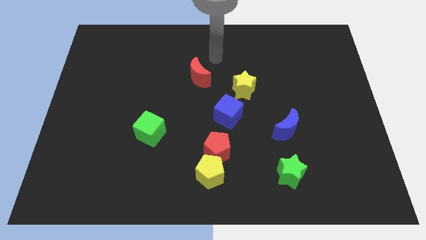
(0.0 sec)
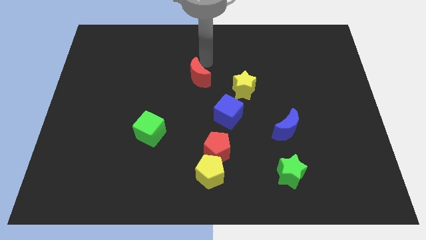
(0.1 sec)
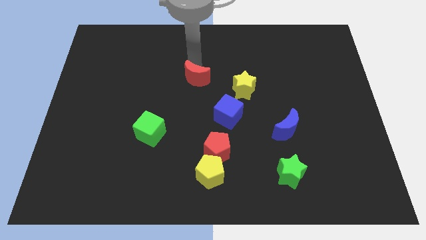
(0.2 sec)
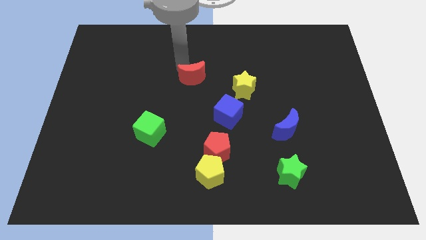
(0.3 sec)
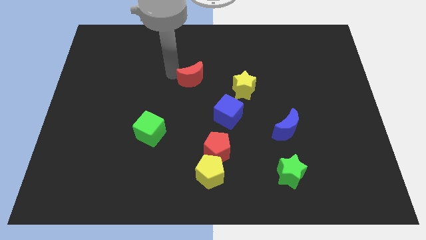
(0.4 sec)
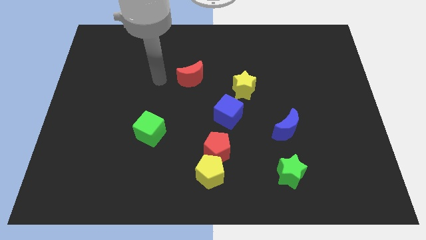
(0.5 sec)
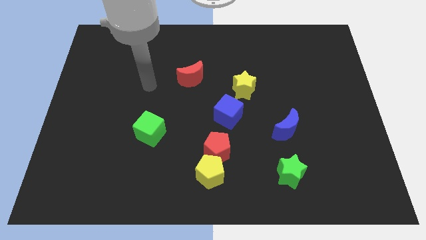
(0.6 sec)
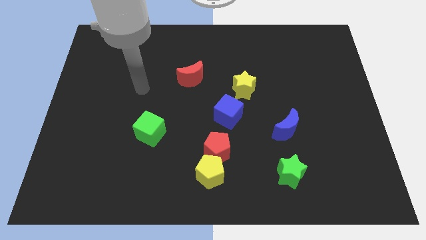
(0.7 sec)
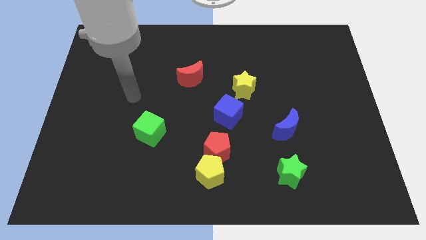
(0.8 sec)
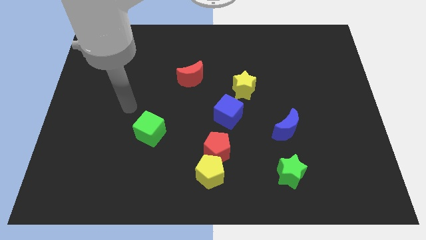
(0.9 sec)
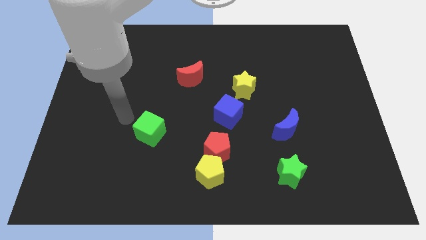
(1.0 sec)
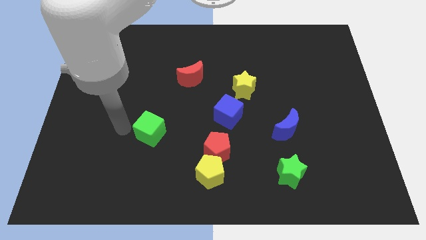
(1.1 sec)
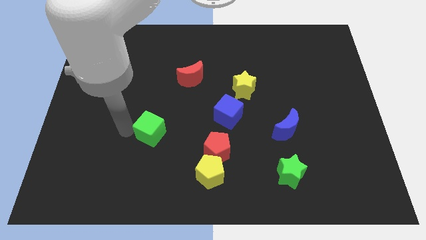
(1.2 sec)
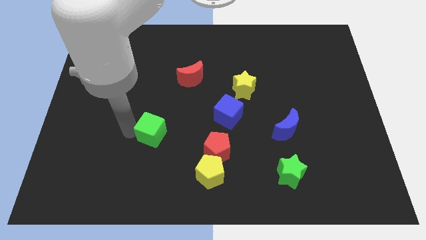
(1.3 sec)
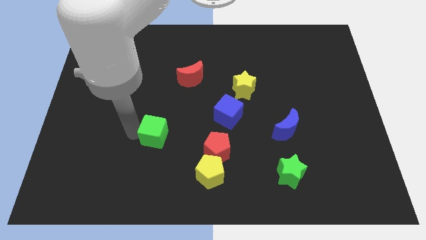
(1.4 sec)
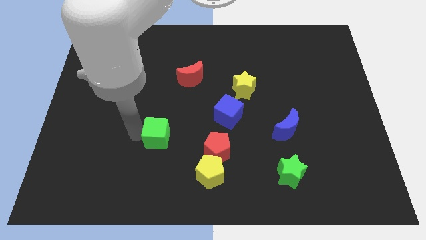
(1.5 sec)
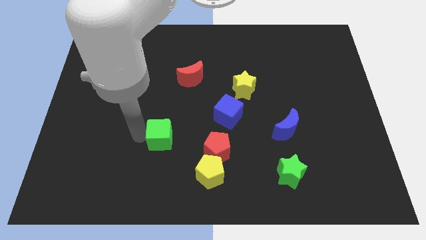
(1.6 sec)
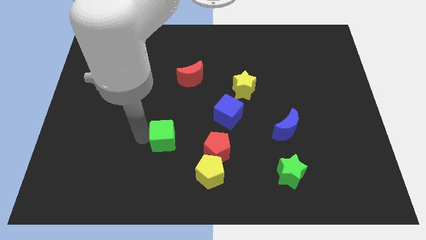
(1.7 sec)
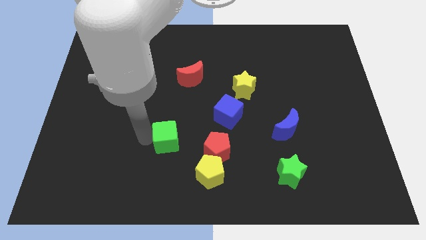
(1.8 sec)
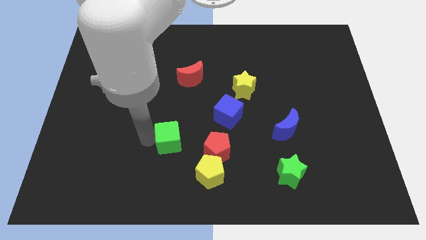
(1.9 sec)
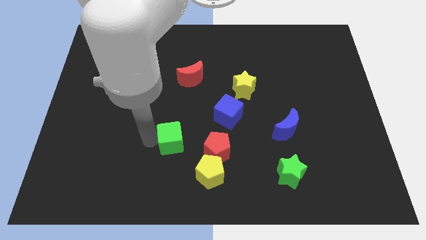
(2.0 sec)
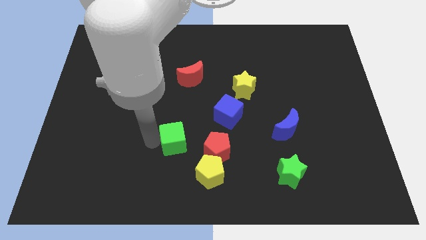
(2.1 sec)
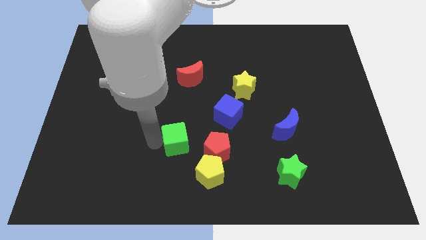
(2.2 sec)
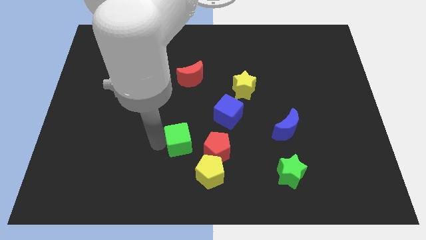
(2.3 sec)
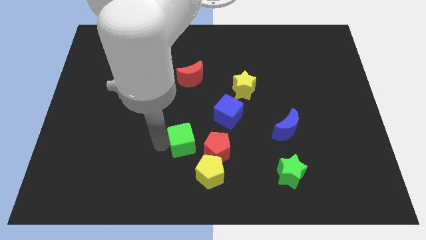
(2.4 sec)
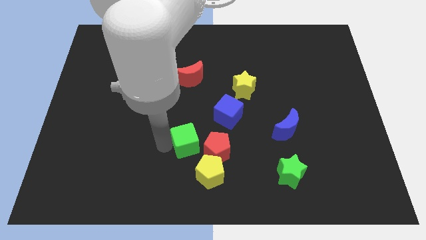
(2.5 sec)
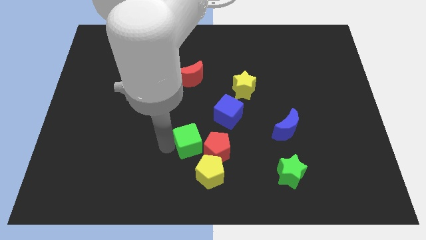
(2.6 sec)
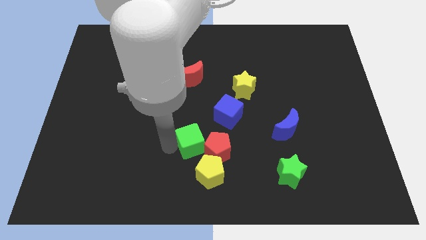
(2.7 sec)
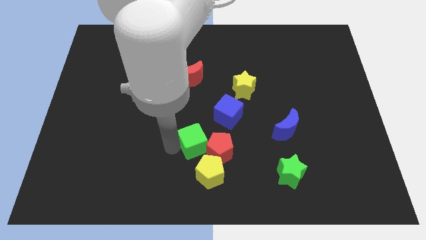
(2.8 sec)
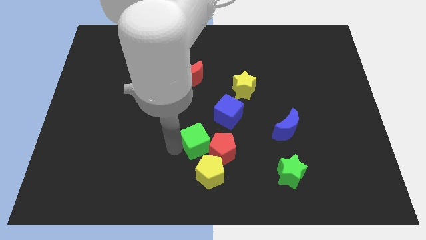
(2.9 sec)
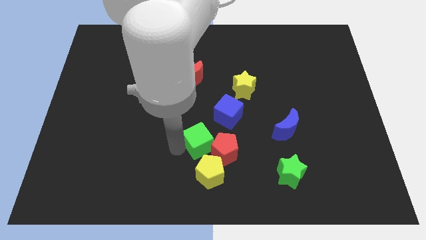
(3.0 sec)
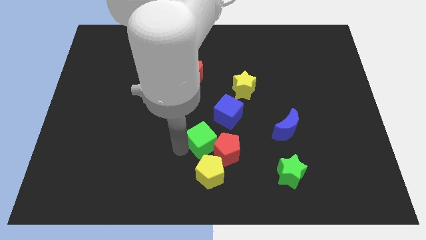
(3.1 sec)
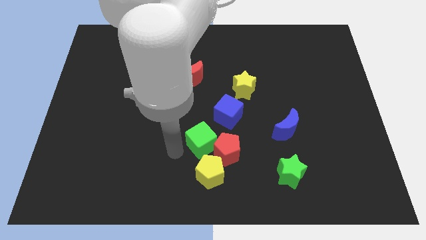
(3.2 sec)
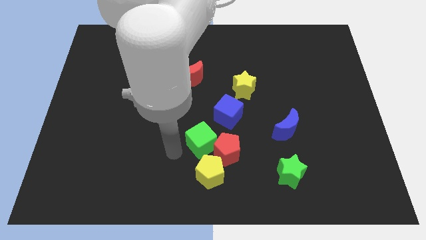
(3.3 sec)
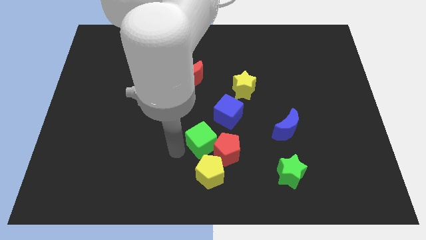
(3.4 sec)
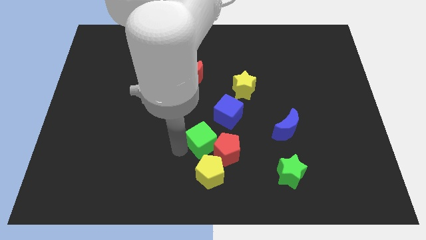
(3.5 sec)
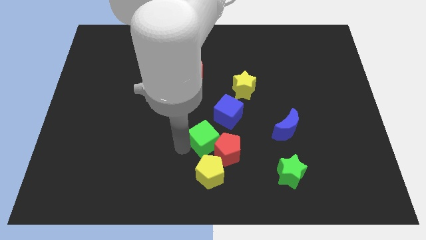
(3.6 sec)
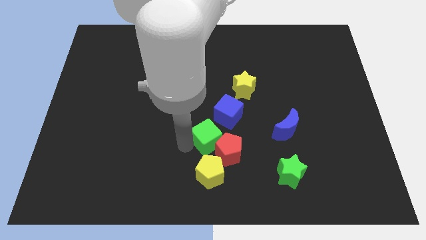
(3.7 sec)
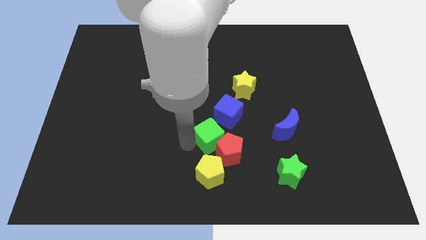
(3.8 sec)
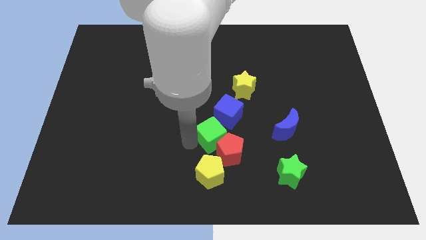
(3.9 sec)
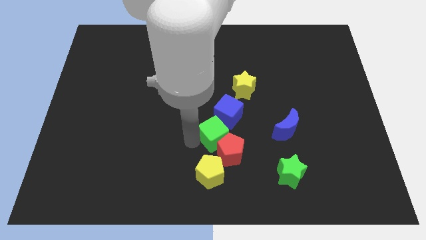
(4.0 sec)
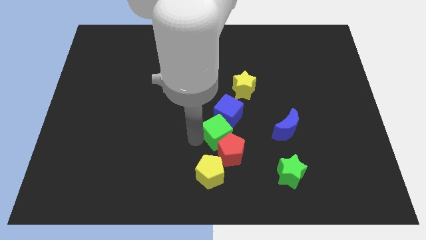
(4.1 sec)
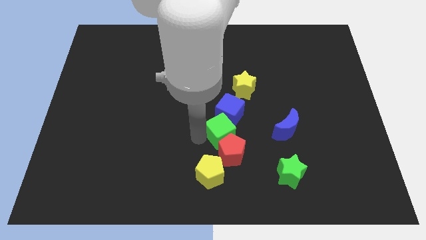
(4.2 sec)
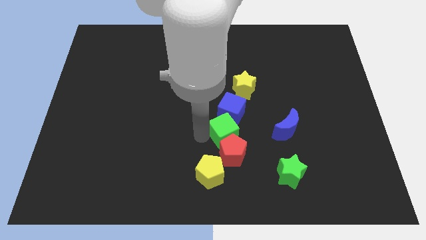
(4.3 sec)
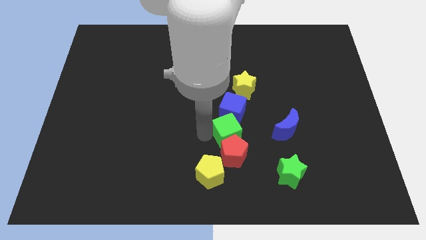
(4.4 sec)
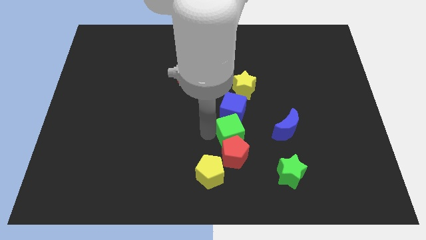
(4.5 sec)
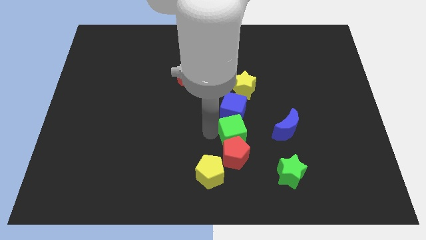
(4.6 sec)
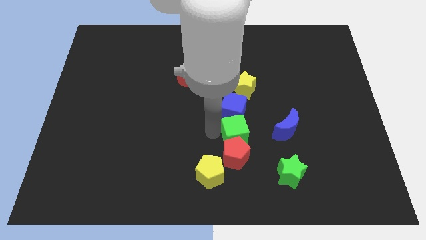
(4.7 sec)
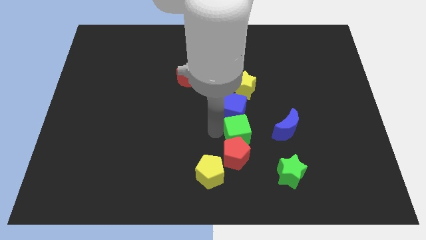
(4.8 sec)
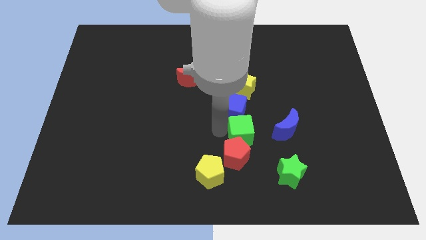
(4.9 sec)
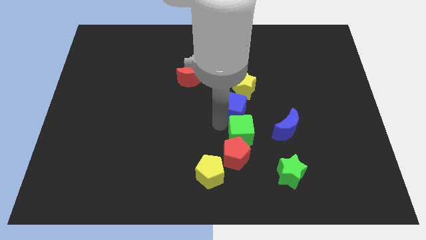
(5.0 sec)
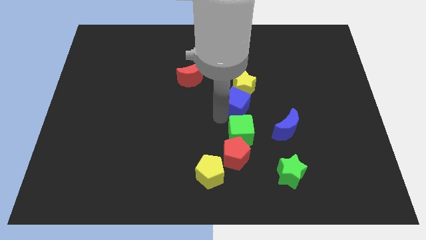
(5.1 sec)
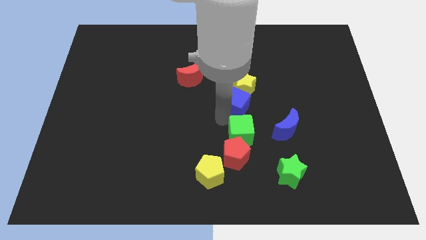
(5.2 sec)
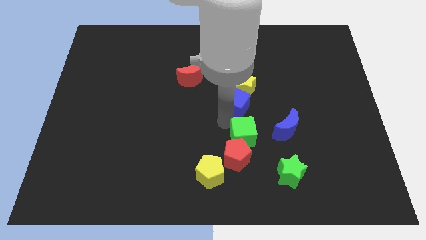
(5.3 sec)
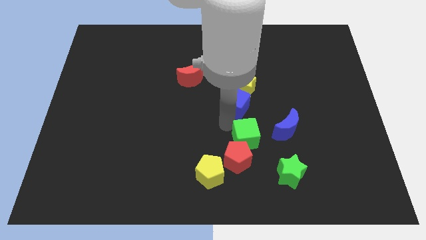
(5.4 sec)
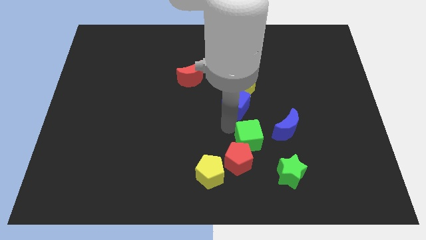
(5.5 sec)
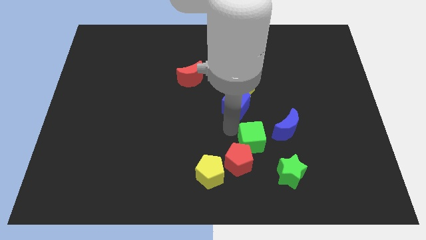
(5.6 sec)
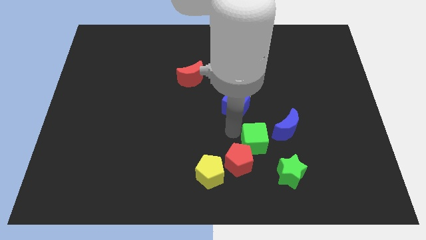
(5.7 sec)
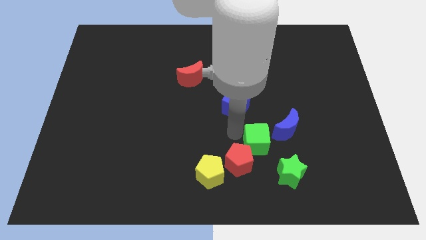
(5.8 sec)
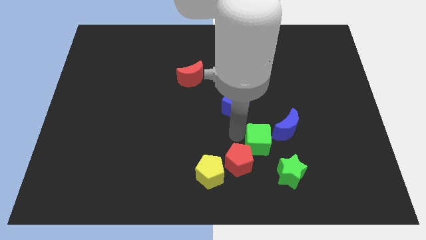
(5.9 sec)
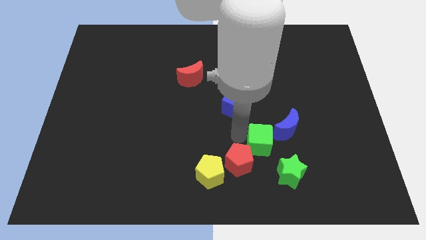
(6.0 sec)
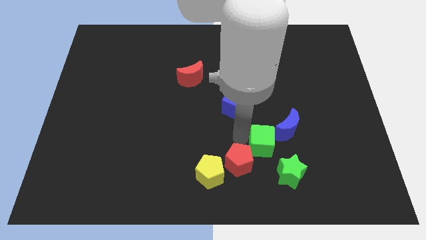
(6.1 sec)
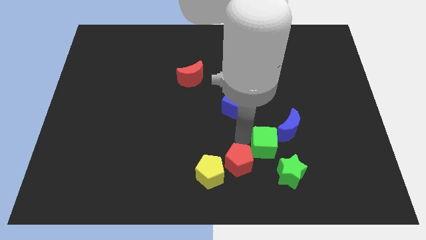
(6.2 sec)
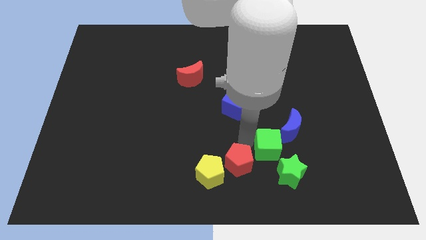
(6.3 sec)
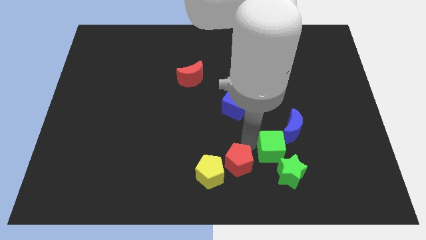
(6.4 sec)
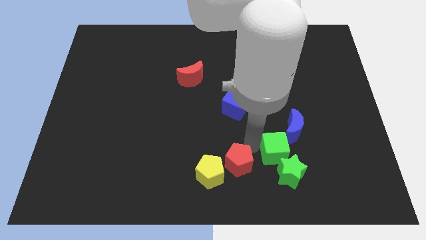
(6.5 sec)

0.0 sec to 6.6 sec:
slide the green cube next to the green star

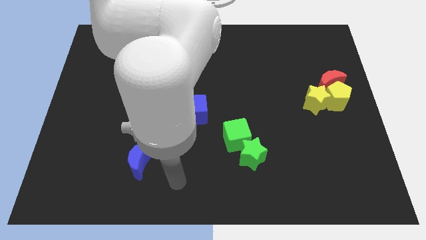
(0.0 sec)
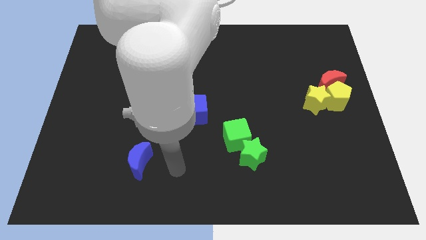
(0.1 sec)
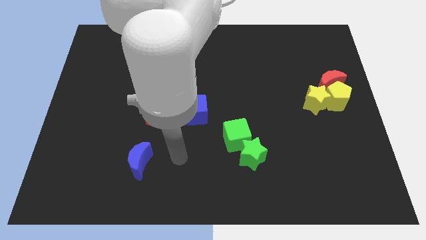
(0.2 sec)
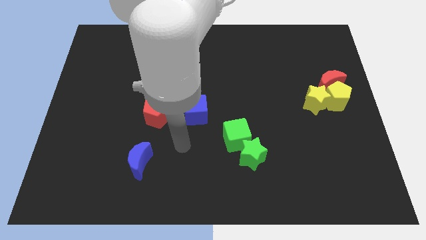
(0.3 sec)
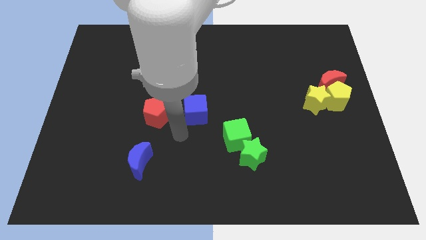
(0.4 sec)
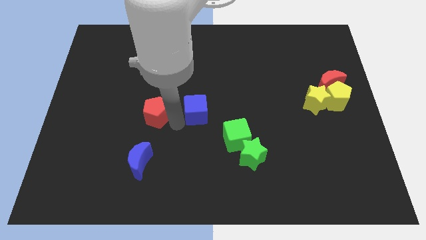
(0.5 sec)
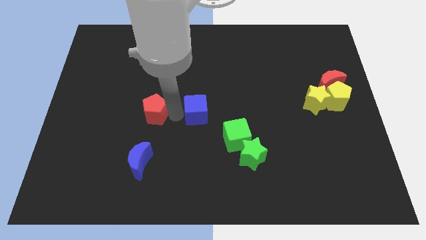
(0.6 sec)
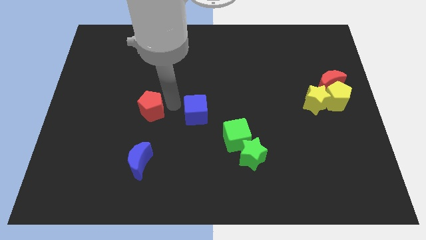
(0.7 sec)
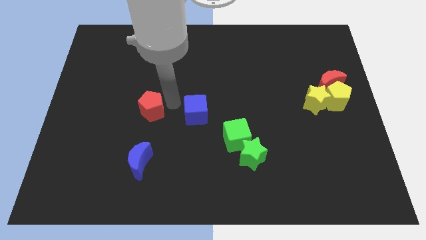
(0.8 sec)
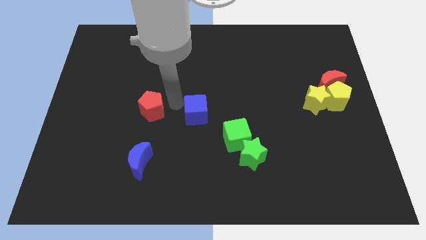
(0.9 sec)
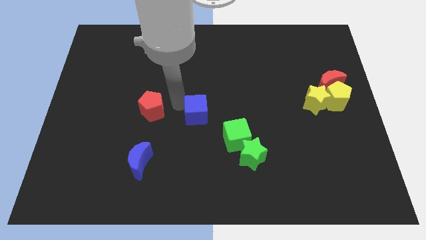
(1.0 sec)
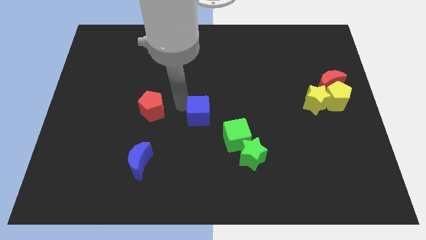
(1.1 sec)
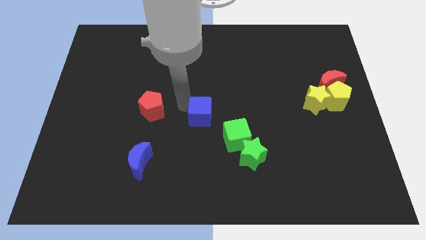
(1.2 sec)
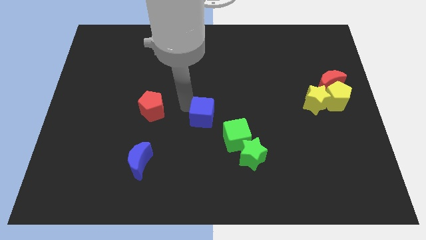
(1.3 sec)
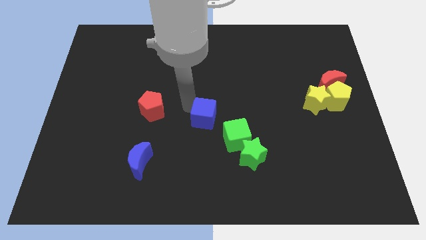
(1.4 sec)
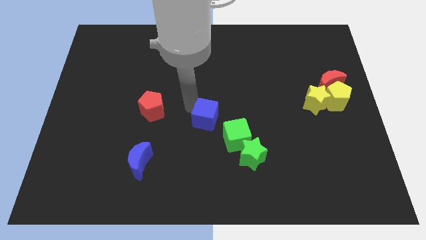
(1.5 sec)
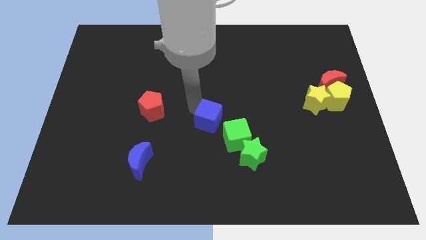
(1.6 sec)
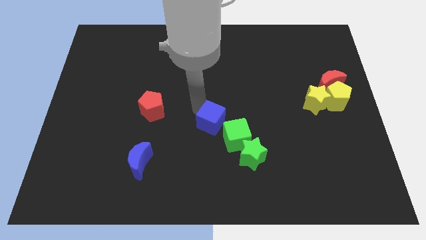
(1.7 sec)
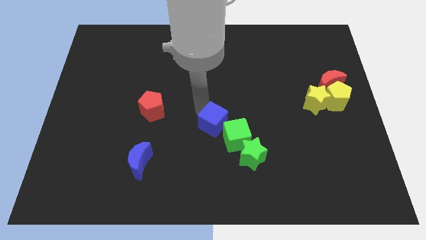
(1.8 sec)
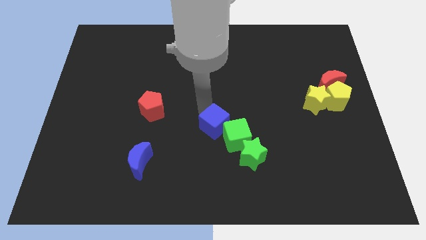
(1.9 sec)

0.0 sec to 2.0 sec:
push the blue cube close to the green cube
